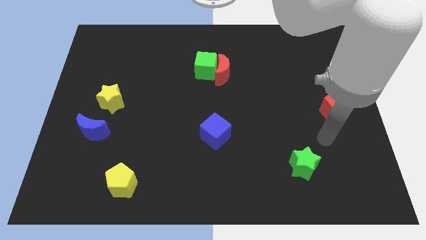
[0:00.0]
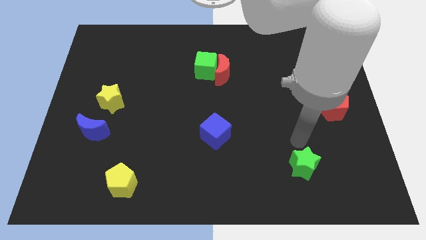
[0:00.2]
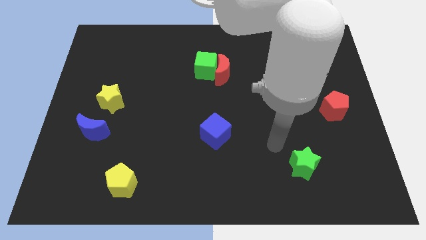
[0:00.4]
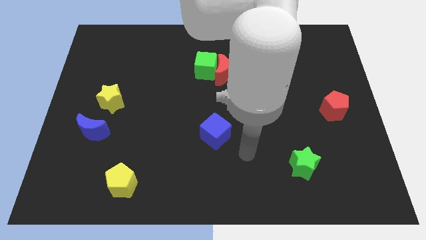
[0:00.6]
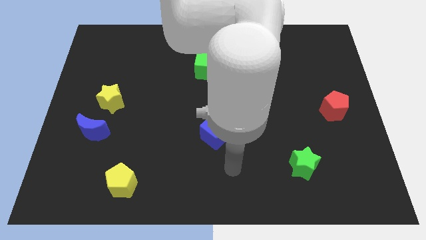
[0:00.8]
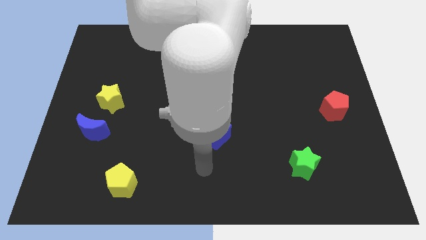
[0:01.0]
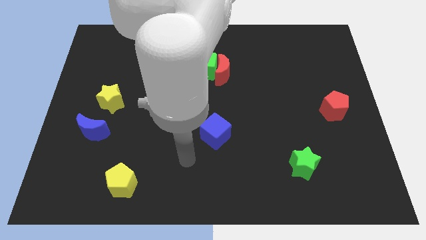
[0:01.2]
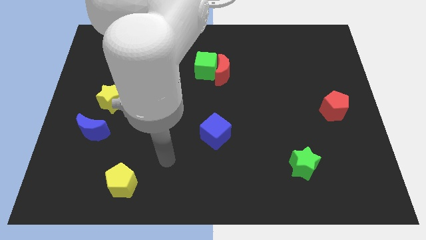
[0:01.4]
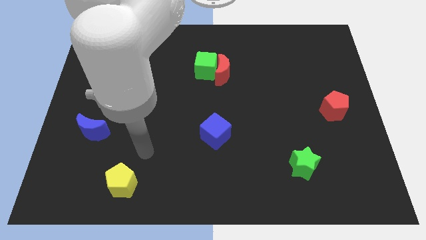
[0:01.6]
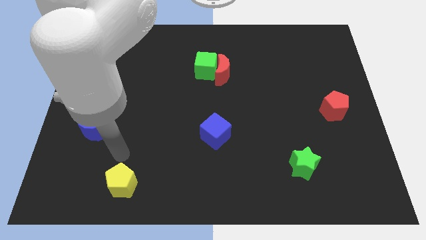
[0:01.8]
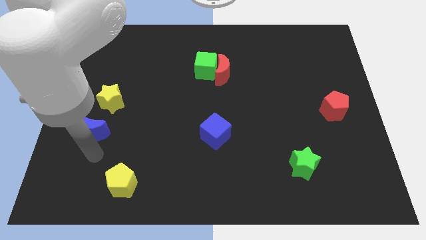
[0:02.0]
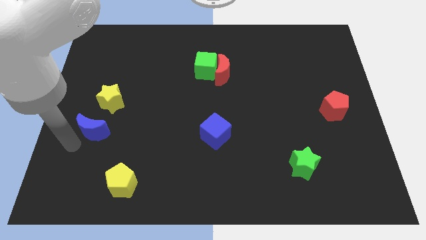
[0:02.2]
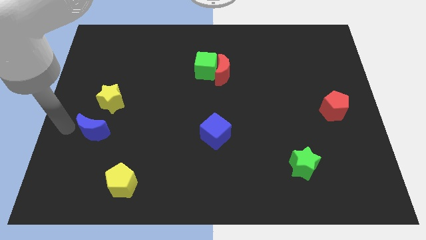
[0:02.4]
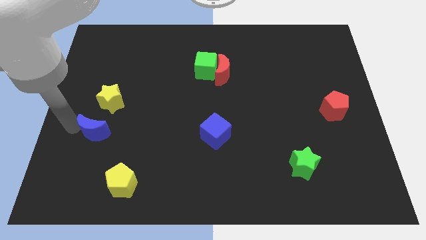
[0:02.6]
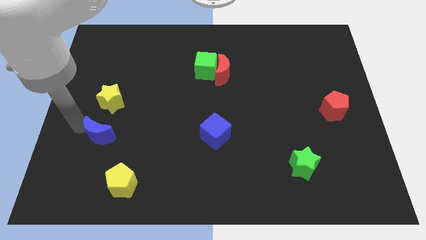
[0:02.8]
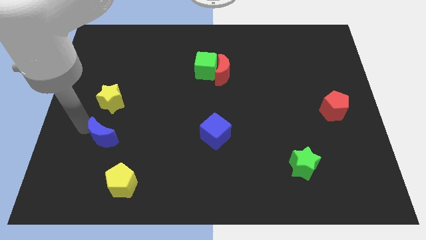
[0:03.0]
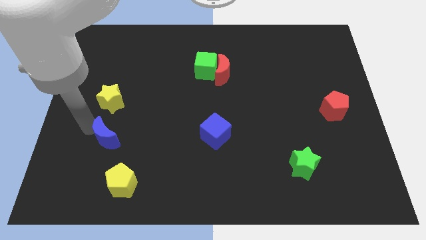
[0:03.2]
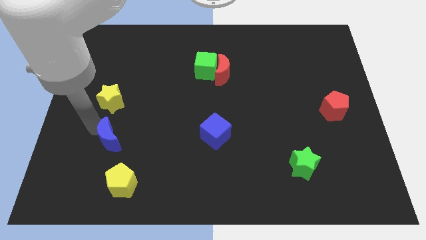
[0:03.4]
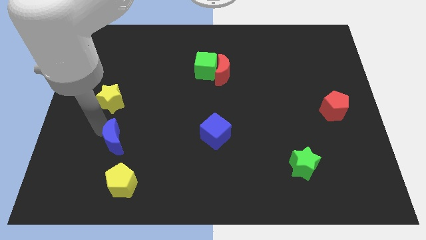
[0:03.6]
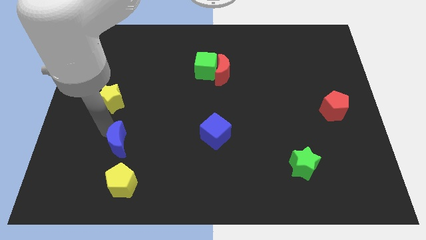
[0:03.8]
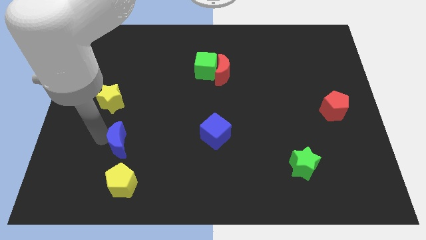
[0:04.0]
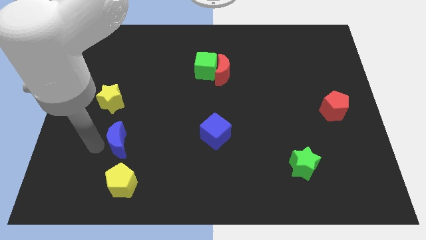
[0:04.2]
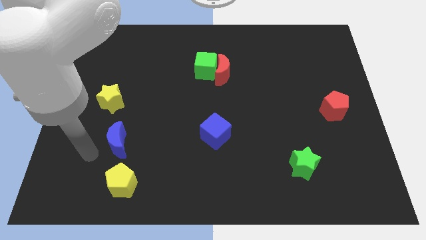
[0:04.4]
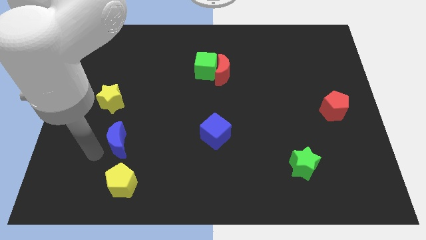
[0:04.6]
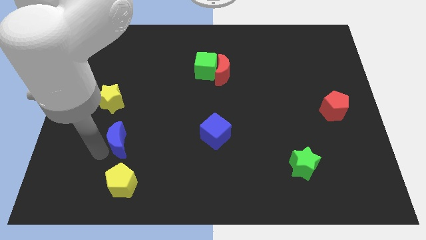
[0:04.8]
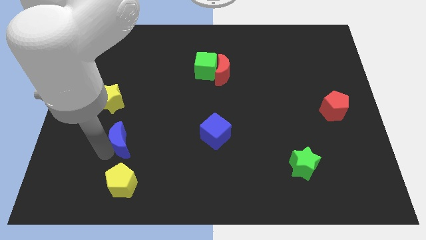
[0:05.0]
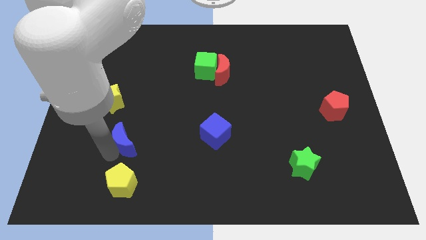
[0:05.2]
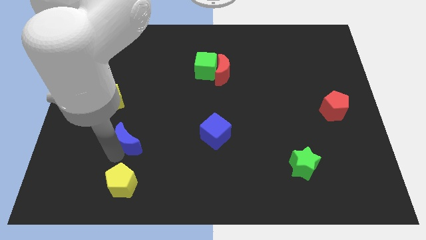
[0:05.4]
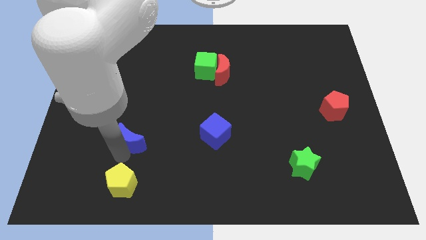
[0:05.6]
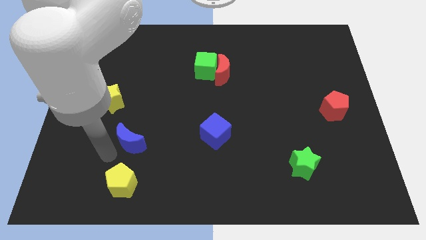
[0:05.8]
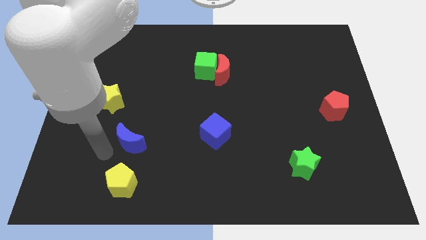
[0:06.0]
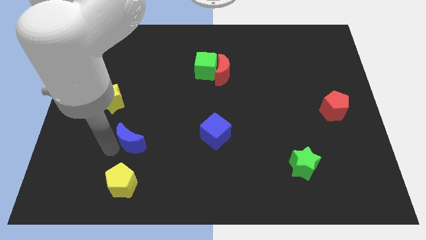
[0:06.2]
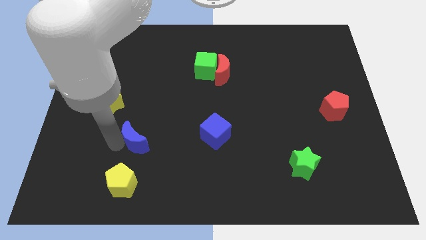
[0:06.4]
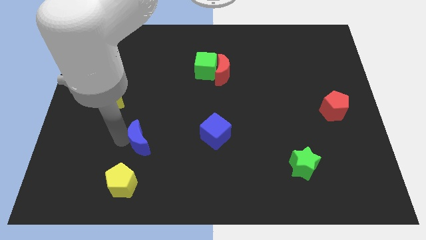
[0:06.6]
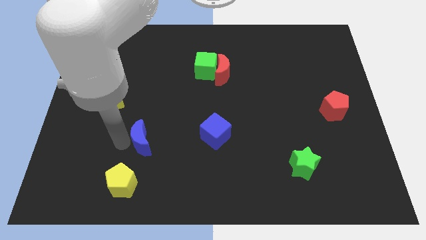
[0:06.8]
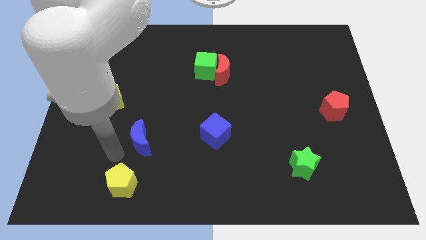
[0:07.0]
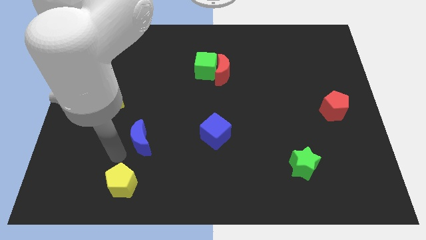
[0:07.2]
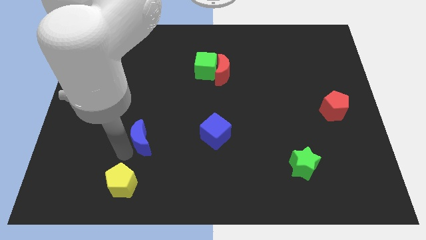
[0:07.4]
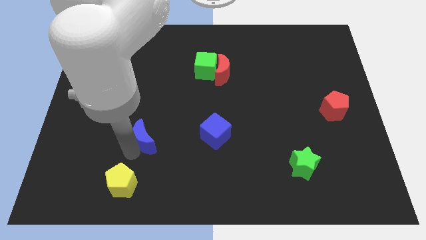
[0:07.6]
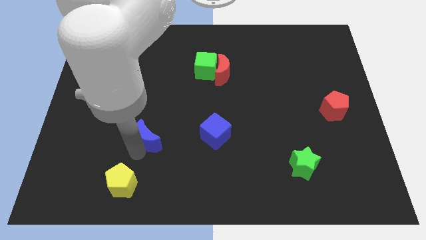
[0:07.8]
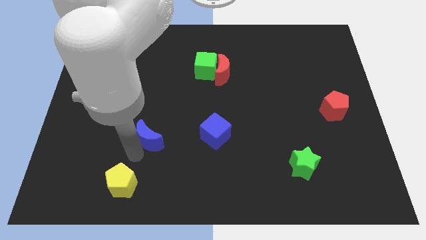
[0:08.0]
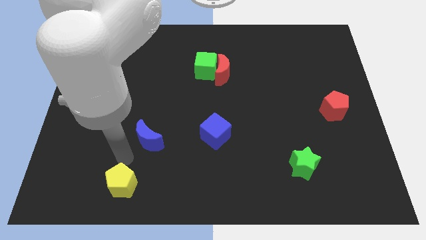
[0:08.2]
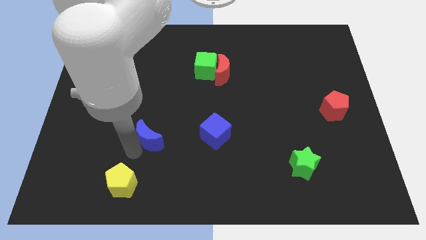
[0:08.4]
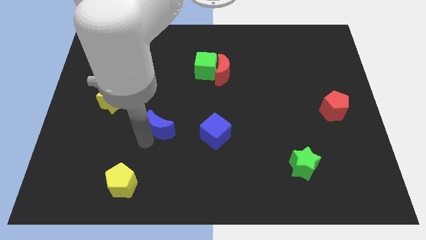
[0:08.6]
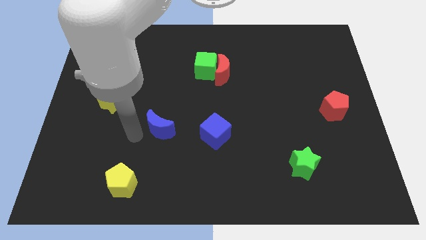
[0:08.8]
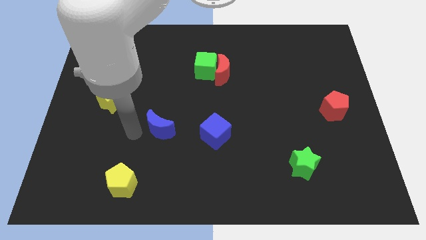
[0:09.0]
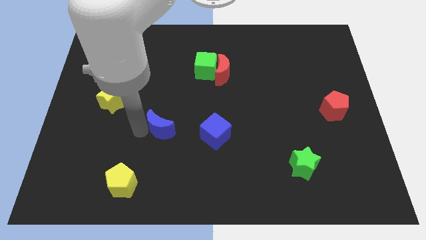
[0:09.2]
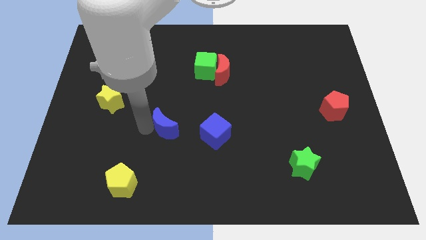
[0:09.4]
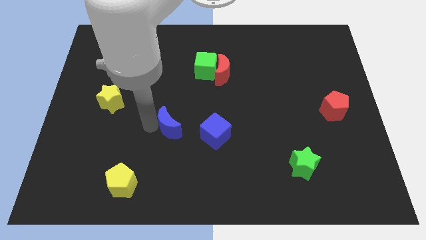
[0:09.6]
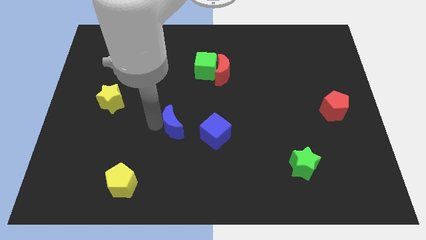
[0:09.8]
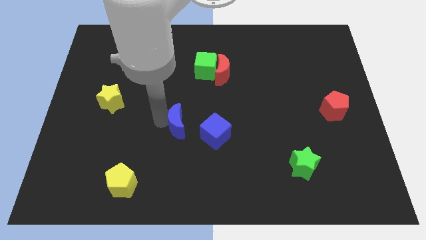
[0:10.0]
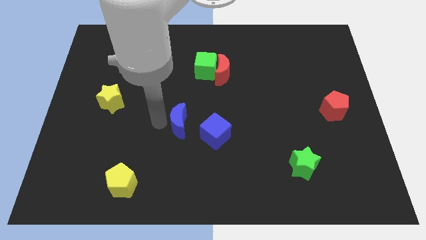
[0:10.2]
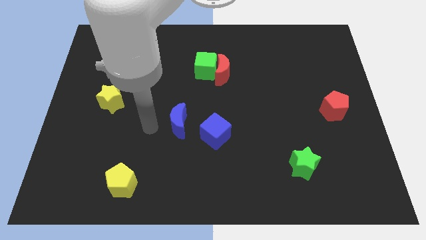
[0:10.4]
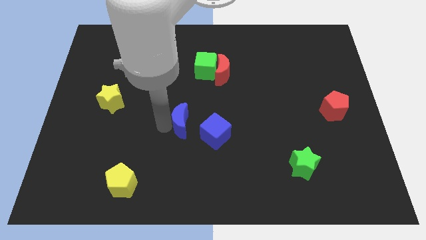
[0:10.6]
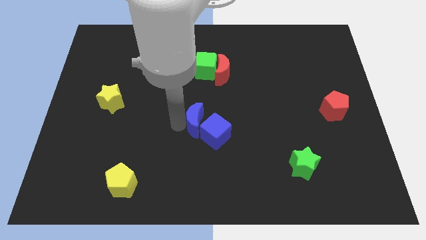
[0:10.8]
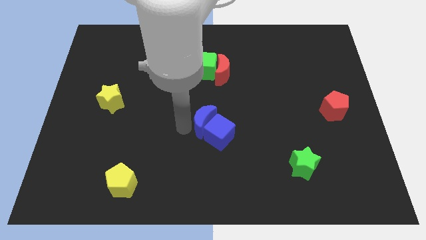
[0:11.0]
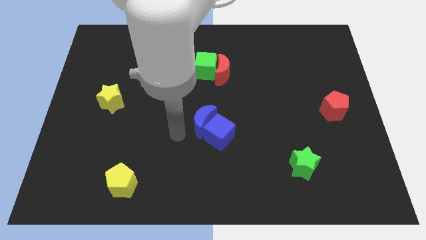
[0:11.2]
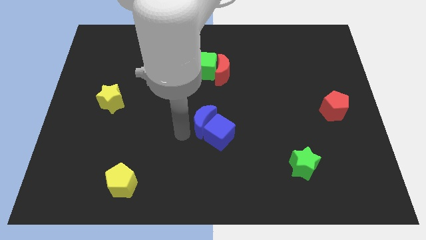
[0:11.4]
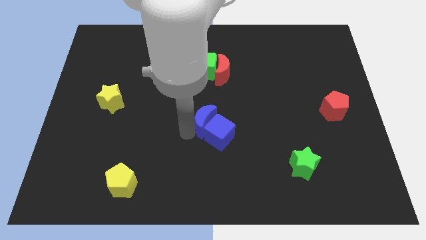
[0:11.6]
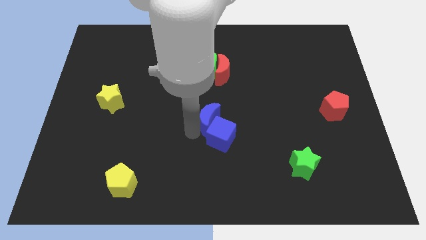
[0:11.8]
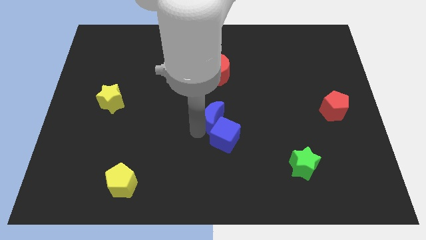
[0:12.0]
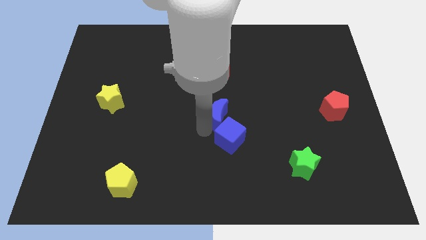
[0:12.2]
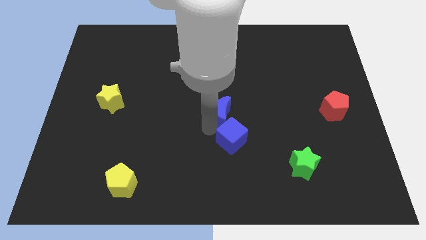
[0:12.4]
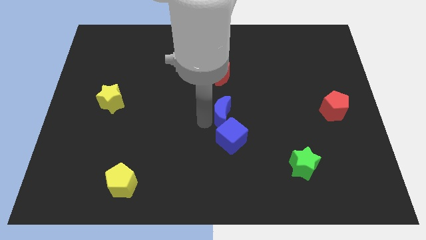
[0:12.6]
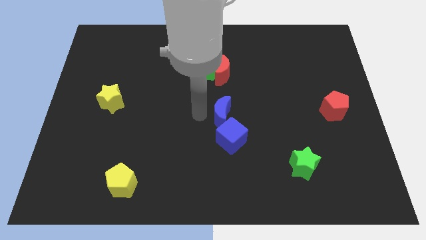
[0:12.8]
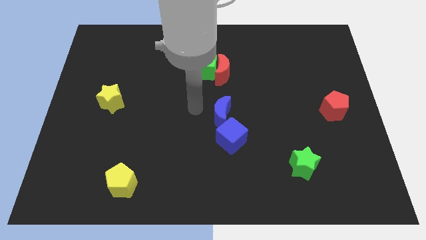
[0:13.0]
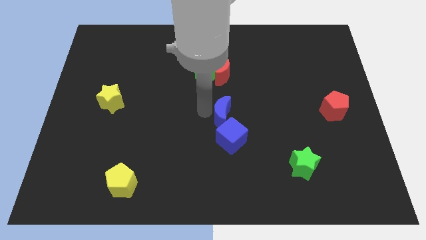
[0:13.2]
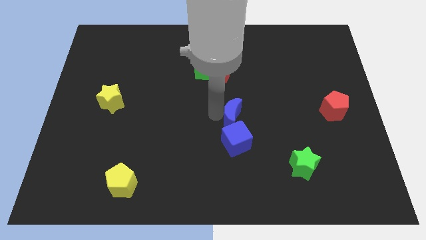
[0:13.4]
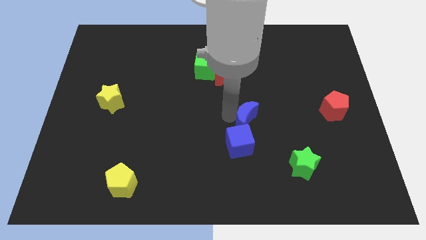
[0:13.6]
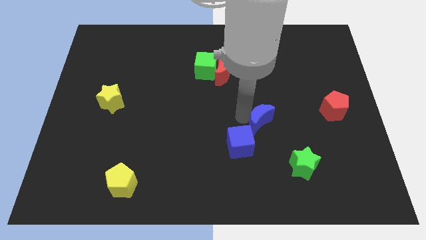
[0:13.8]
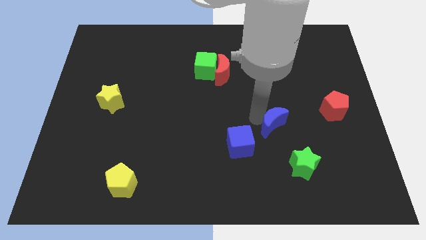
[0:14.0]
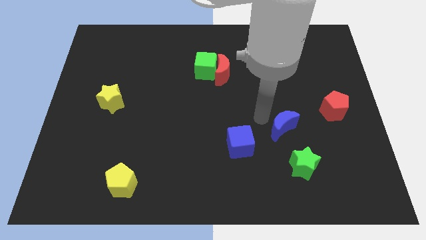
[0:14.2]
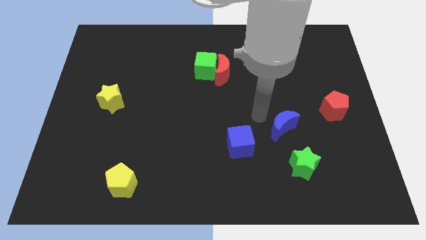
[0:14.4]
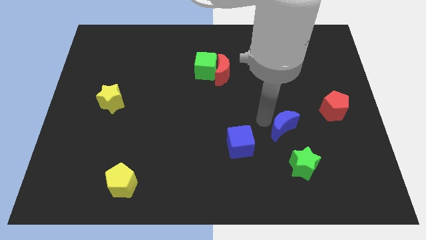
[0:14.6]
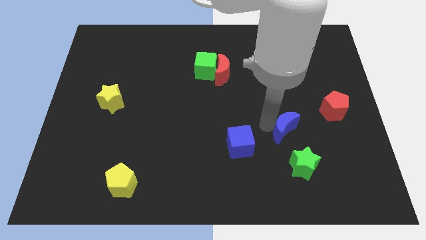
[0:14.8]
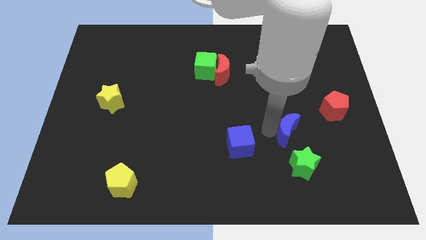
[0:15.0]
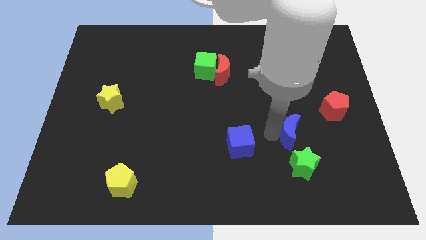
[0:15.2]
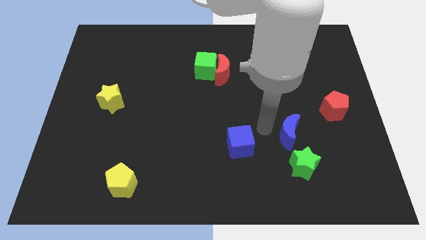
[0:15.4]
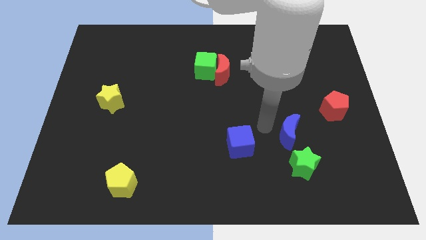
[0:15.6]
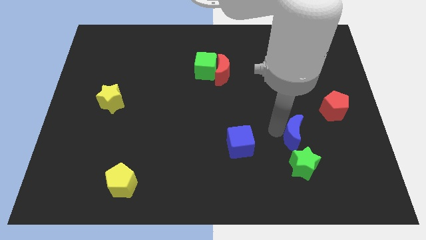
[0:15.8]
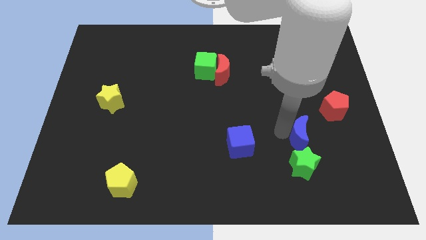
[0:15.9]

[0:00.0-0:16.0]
move the blue moon to the top right side of the green star
